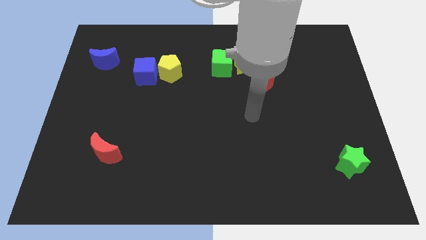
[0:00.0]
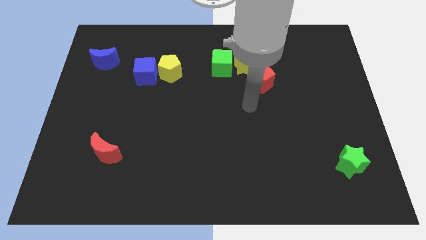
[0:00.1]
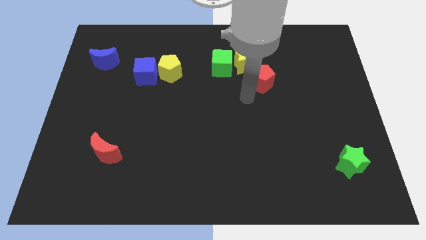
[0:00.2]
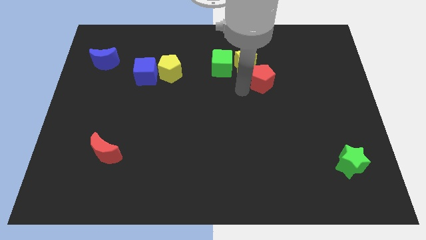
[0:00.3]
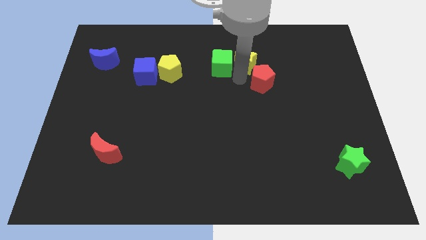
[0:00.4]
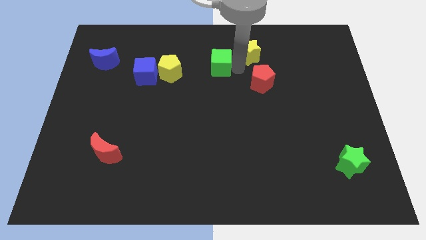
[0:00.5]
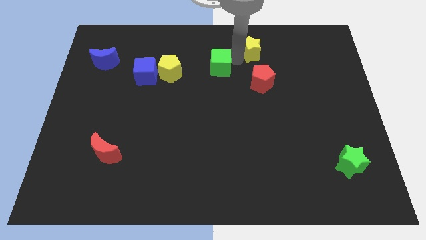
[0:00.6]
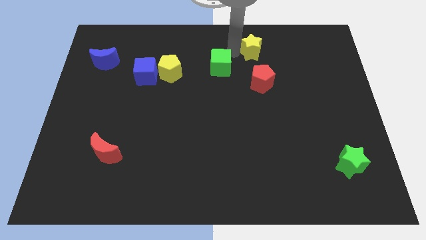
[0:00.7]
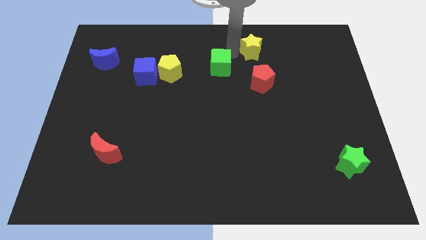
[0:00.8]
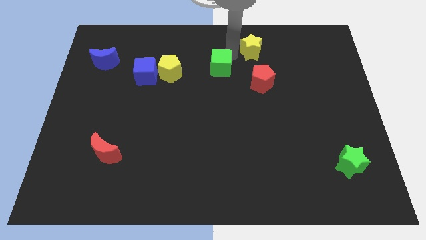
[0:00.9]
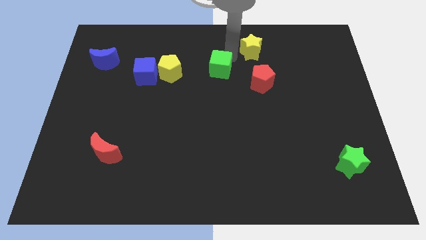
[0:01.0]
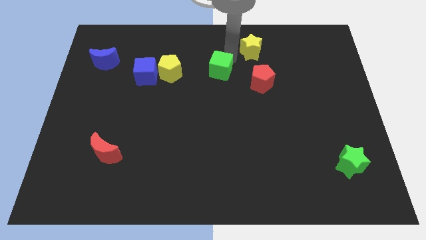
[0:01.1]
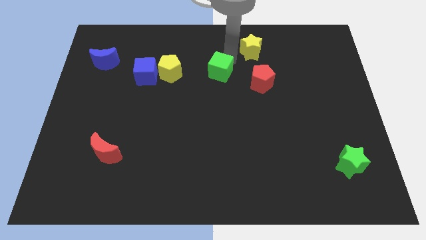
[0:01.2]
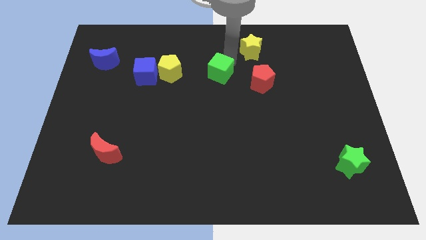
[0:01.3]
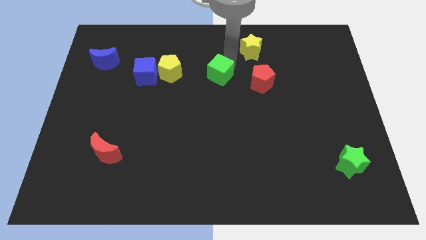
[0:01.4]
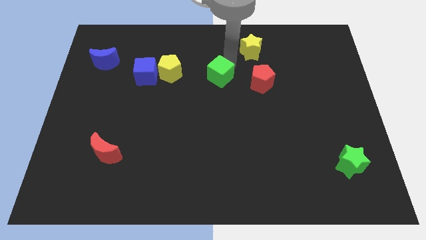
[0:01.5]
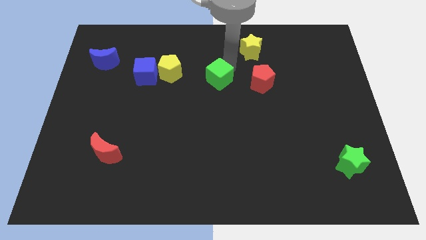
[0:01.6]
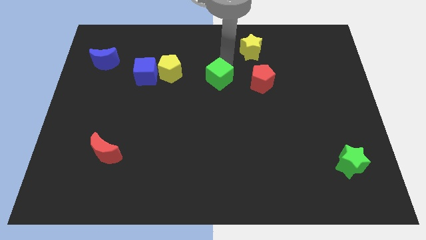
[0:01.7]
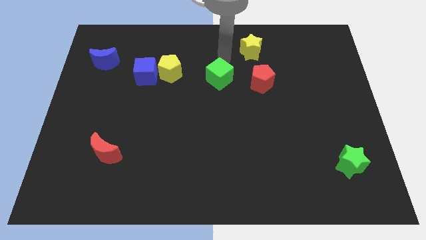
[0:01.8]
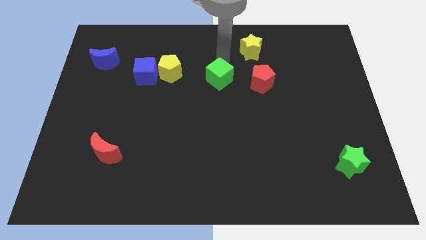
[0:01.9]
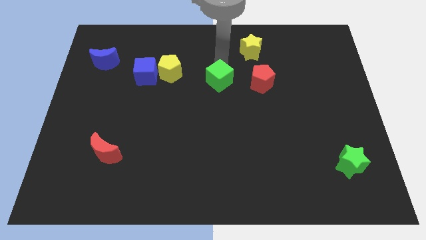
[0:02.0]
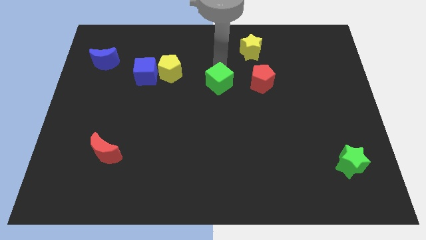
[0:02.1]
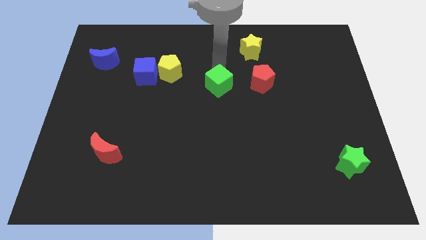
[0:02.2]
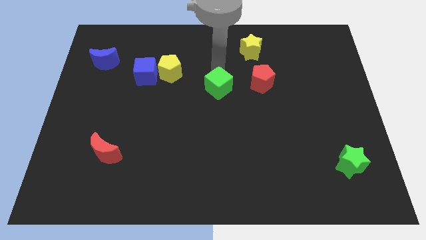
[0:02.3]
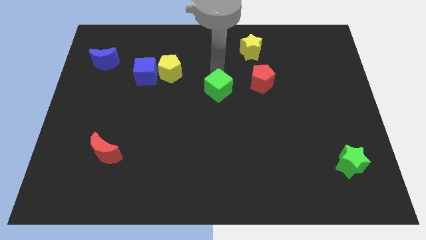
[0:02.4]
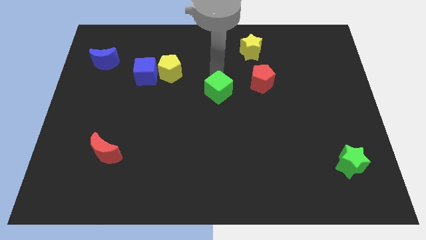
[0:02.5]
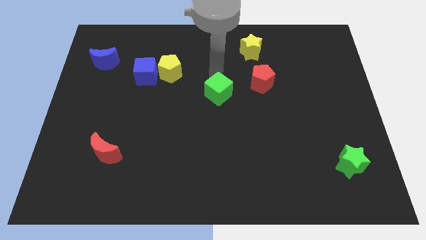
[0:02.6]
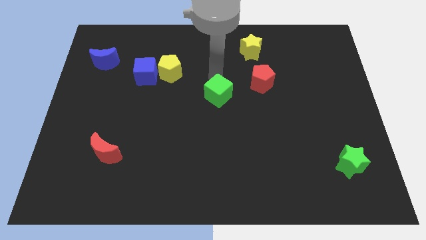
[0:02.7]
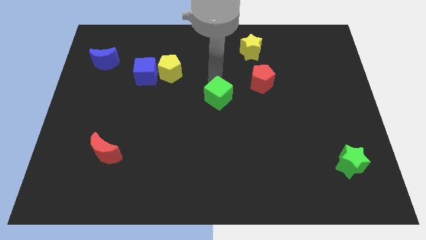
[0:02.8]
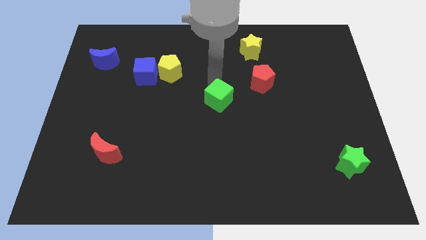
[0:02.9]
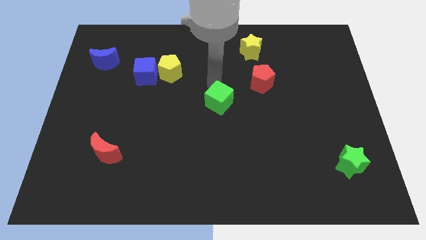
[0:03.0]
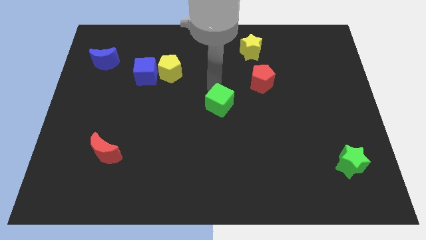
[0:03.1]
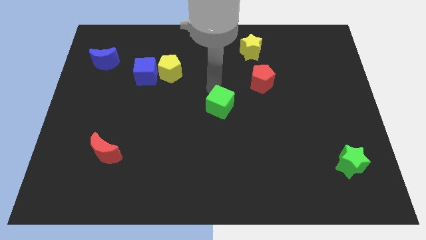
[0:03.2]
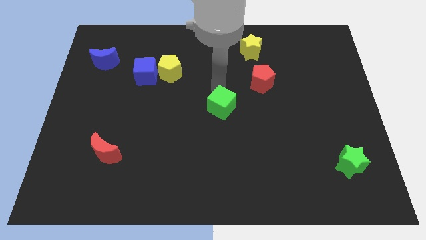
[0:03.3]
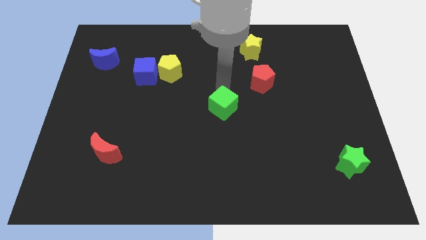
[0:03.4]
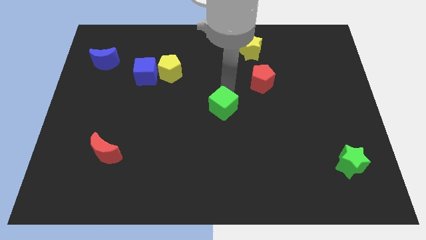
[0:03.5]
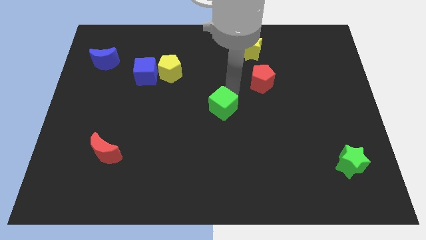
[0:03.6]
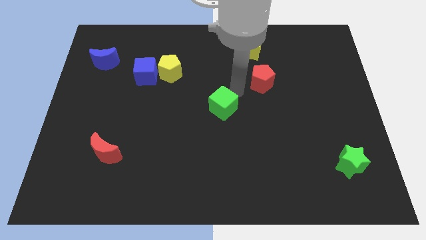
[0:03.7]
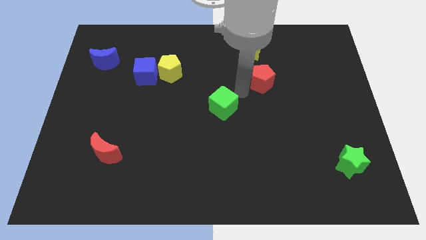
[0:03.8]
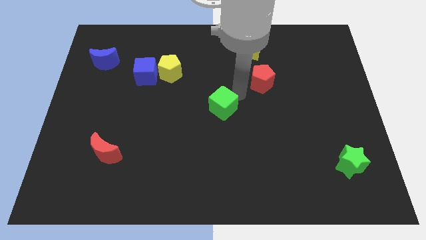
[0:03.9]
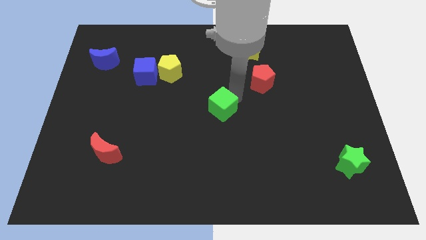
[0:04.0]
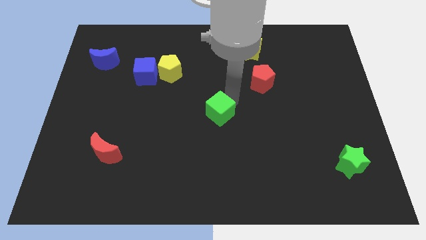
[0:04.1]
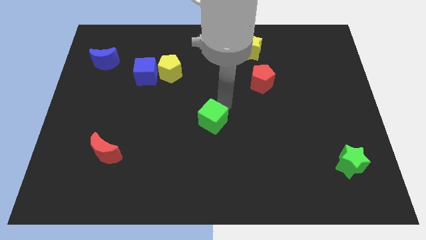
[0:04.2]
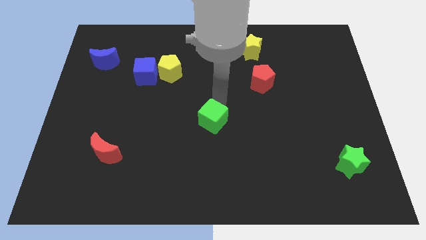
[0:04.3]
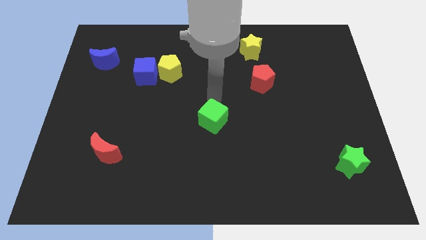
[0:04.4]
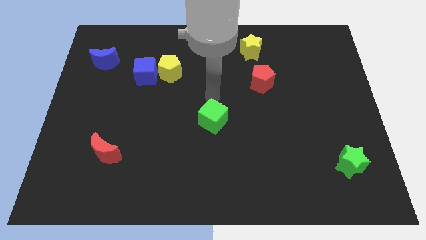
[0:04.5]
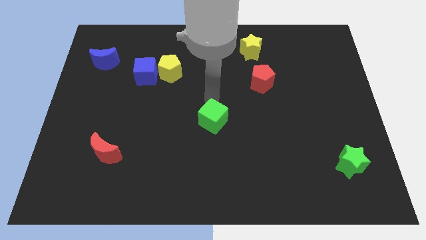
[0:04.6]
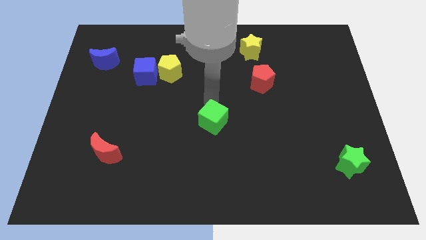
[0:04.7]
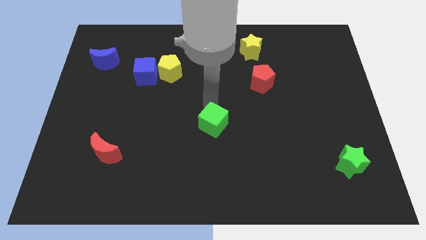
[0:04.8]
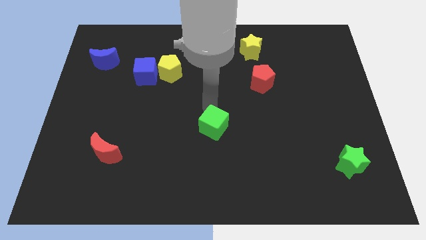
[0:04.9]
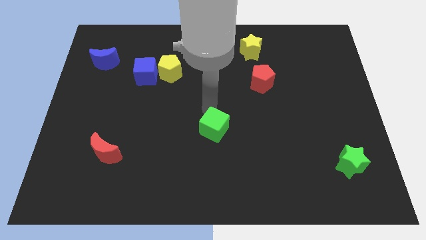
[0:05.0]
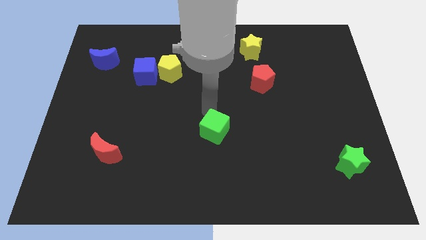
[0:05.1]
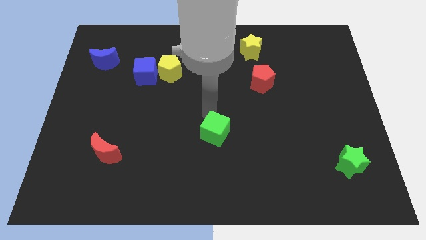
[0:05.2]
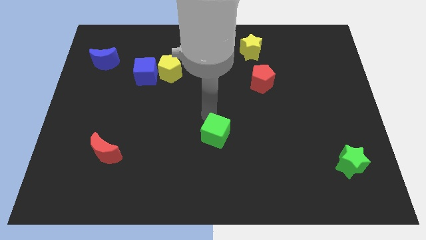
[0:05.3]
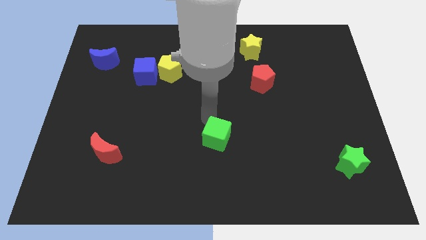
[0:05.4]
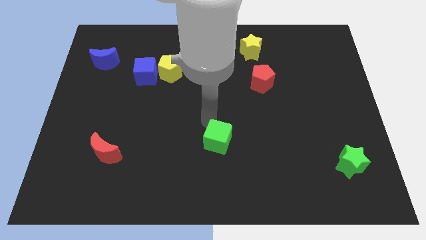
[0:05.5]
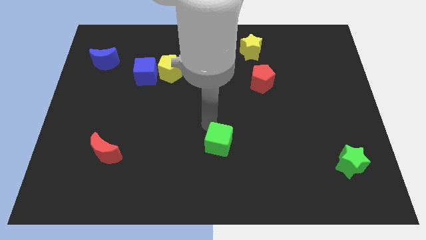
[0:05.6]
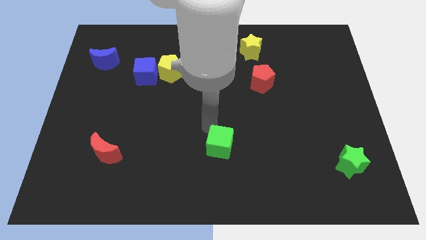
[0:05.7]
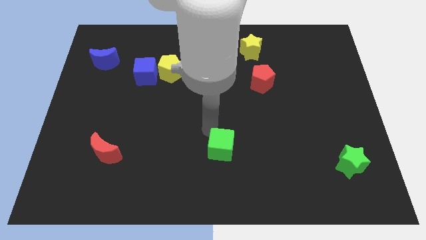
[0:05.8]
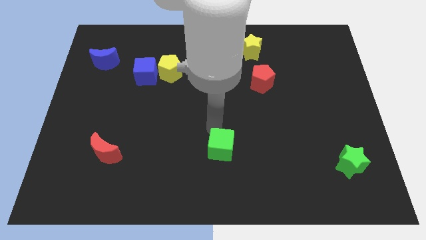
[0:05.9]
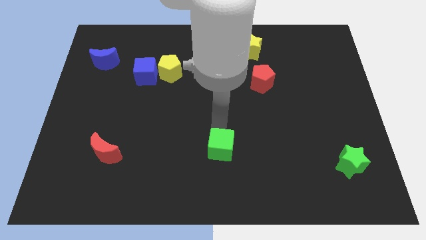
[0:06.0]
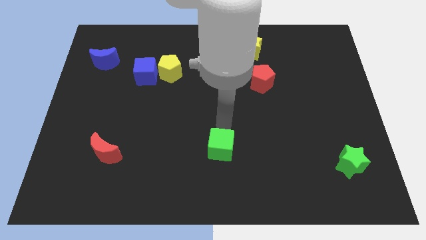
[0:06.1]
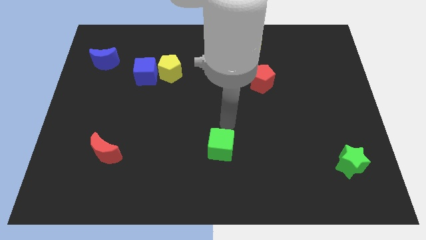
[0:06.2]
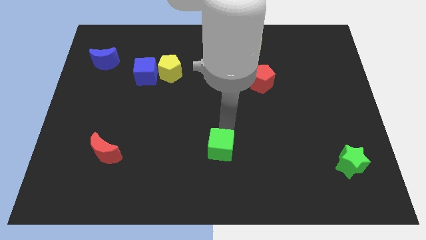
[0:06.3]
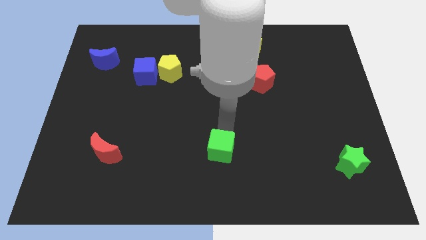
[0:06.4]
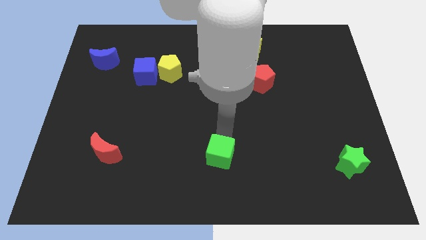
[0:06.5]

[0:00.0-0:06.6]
put the green cube to the bottom side

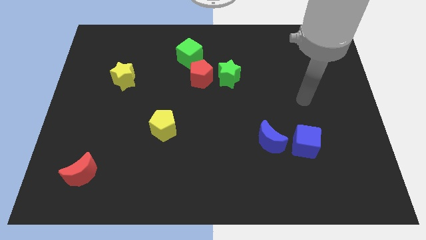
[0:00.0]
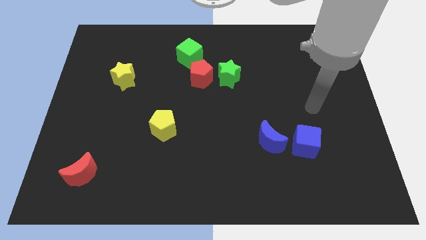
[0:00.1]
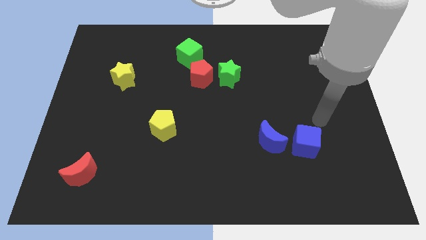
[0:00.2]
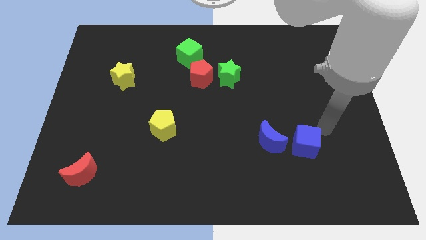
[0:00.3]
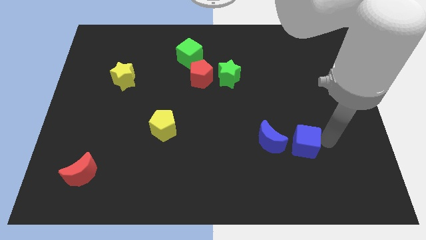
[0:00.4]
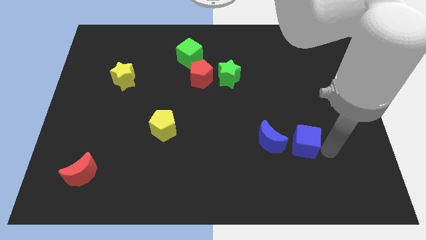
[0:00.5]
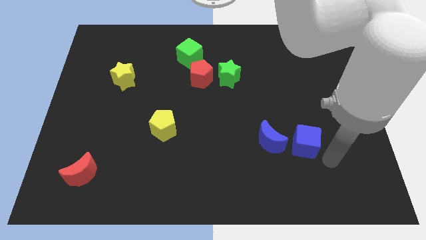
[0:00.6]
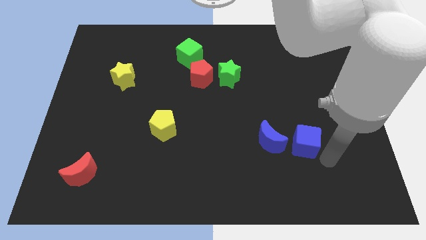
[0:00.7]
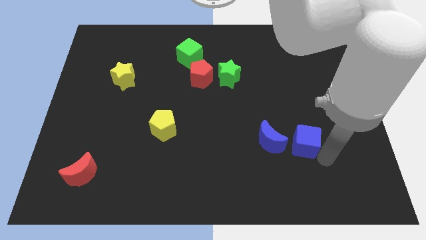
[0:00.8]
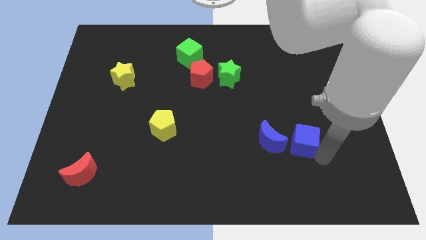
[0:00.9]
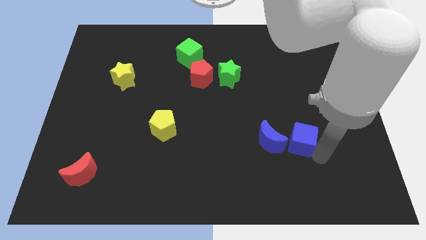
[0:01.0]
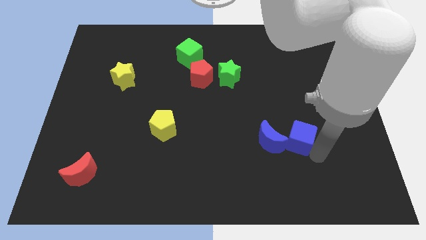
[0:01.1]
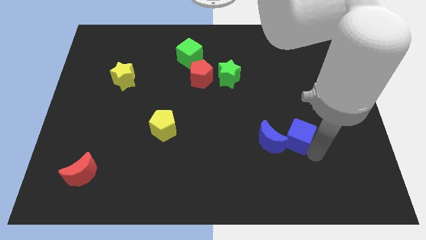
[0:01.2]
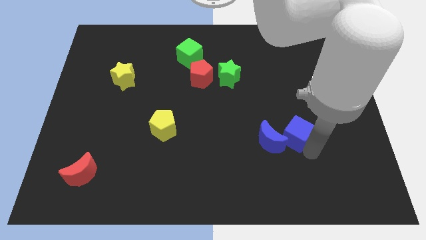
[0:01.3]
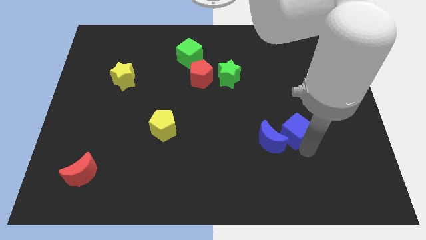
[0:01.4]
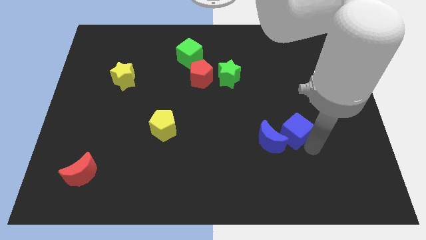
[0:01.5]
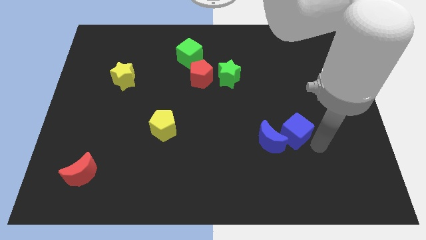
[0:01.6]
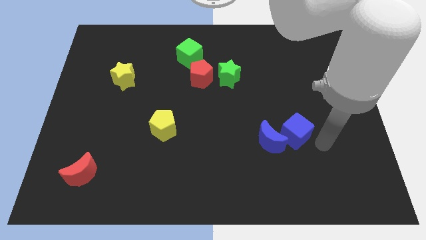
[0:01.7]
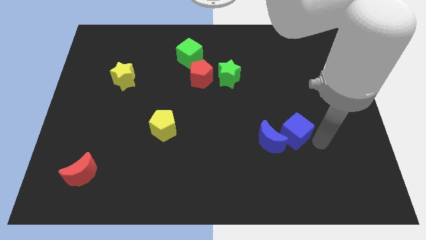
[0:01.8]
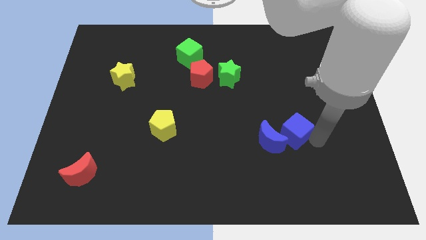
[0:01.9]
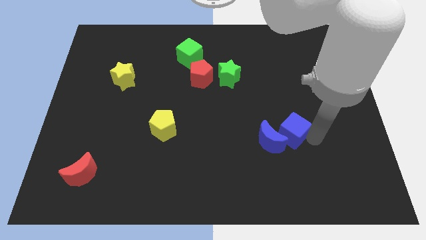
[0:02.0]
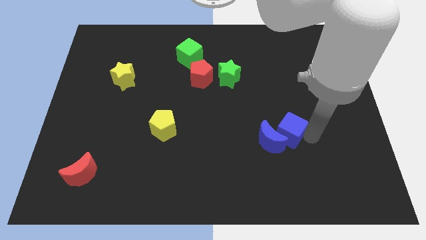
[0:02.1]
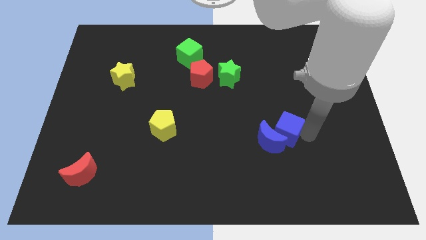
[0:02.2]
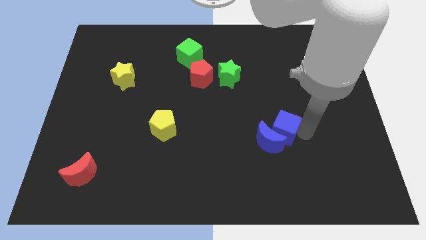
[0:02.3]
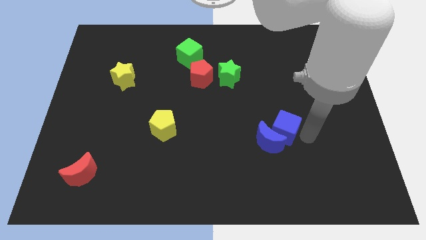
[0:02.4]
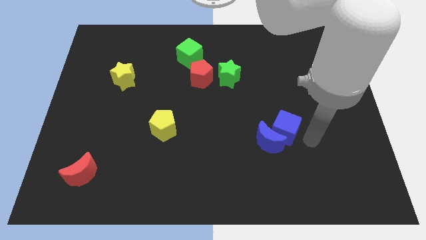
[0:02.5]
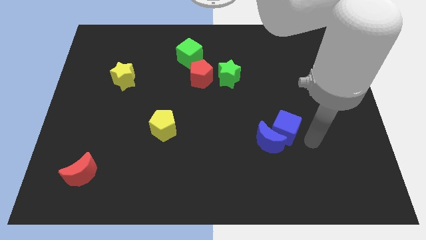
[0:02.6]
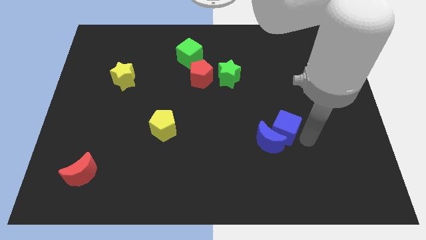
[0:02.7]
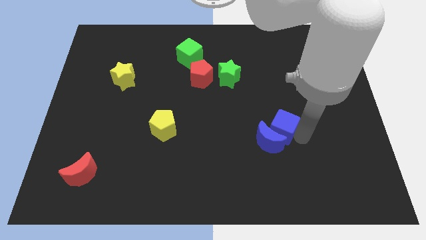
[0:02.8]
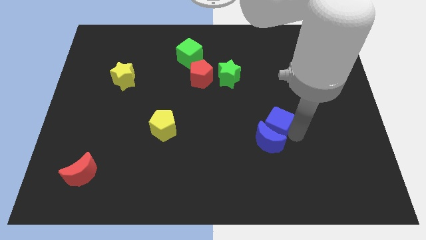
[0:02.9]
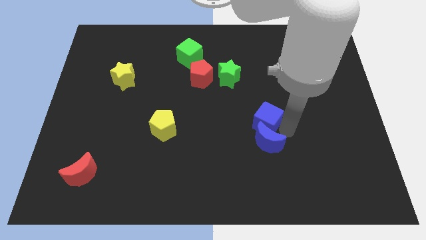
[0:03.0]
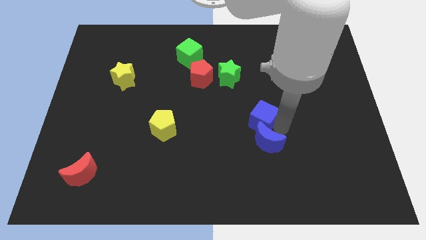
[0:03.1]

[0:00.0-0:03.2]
move the blue cube to the middle of the board
